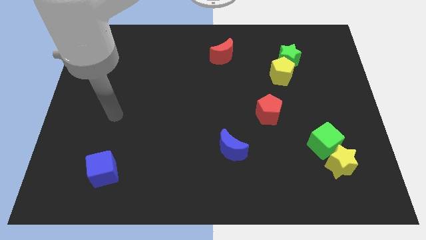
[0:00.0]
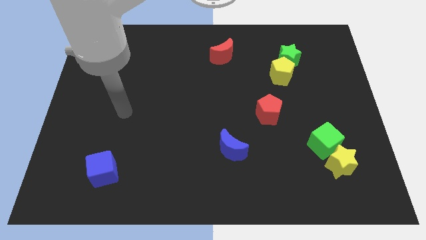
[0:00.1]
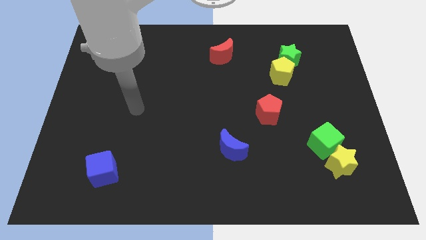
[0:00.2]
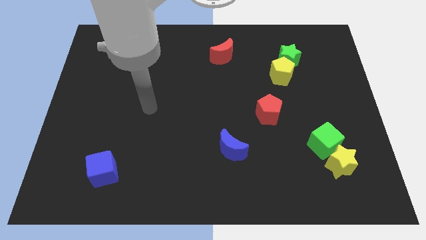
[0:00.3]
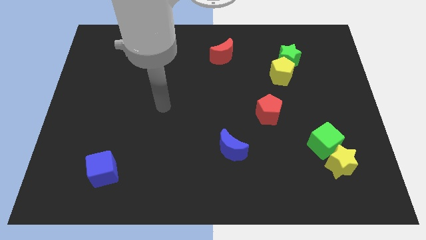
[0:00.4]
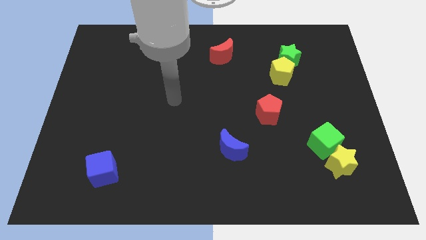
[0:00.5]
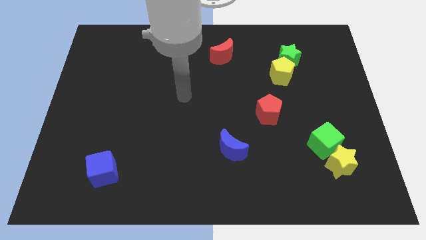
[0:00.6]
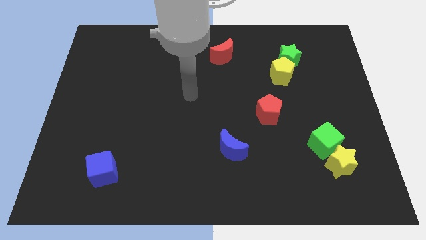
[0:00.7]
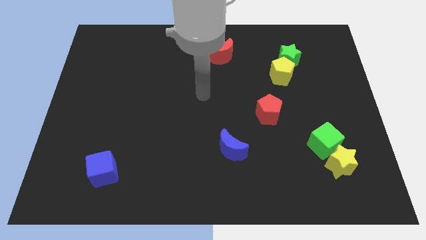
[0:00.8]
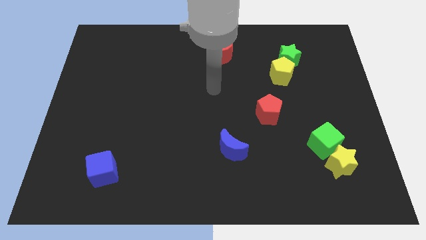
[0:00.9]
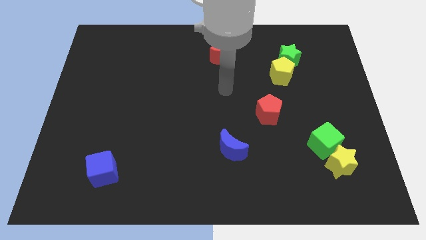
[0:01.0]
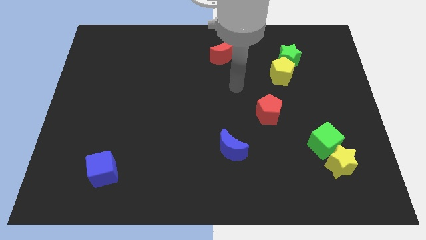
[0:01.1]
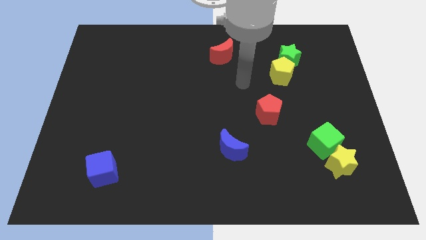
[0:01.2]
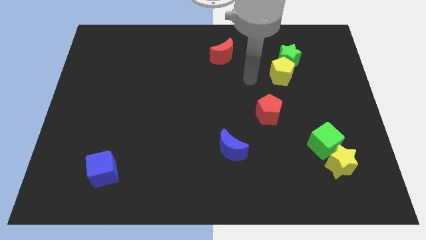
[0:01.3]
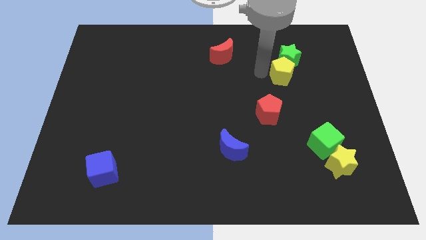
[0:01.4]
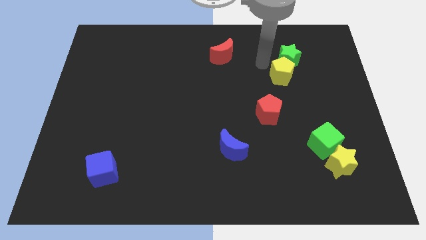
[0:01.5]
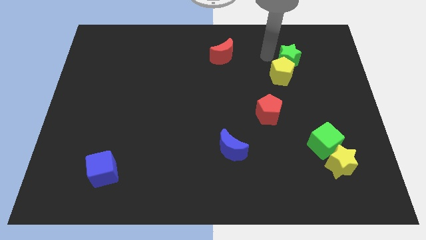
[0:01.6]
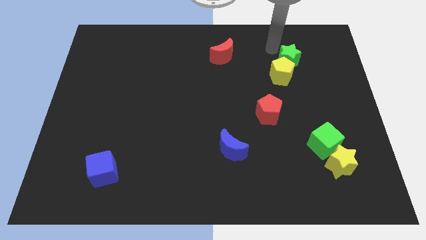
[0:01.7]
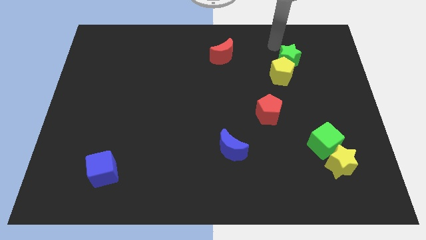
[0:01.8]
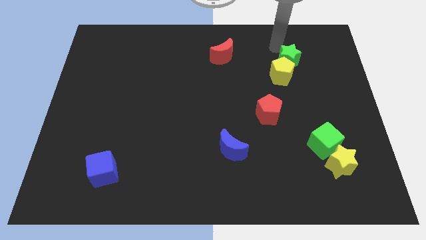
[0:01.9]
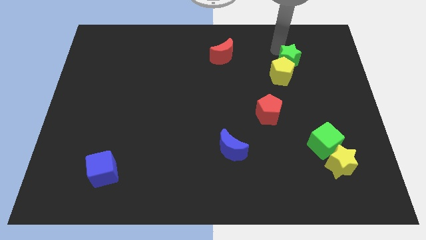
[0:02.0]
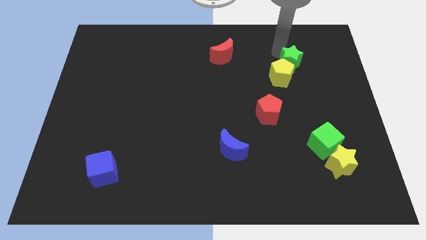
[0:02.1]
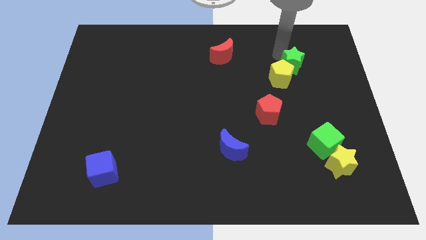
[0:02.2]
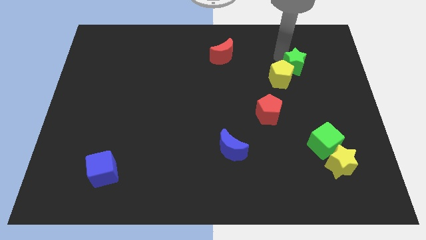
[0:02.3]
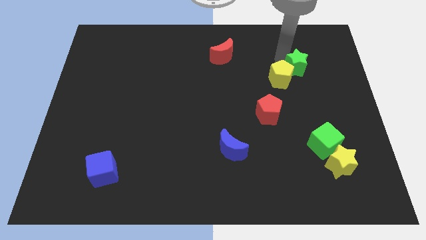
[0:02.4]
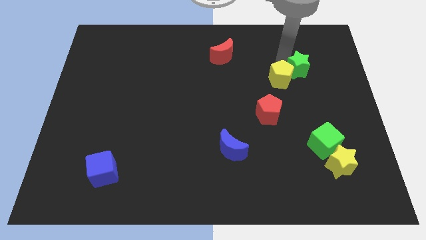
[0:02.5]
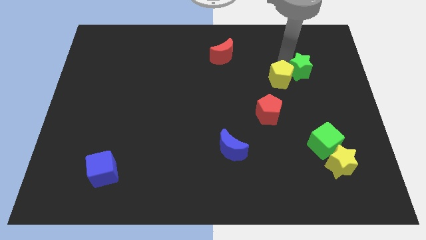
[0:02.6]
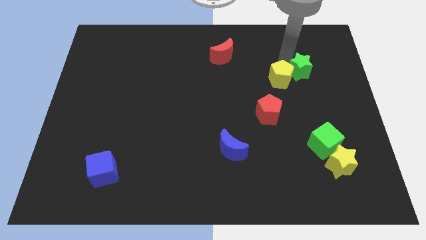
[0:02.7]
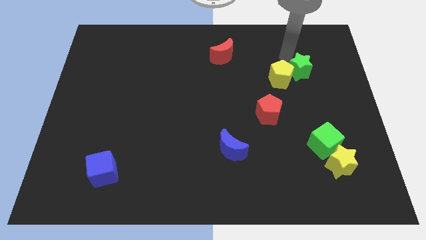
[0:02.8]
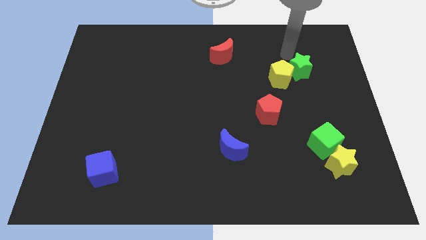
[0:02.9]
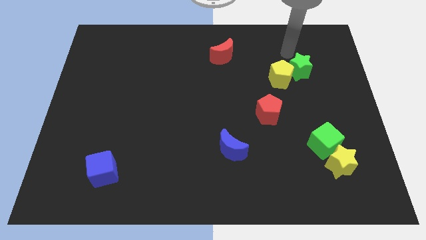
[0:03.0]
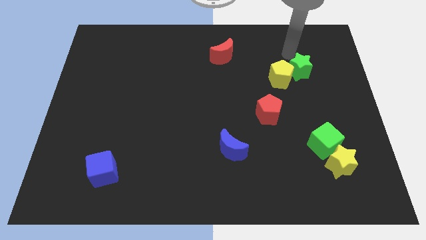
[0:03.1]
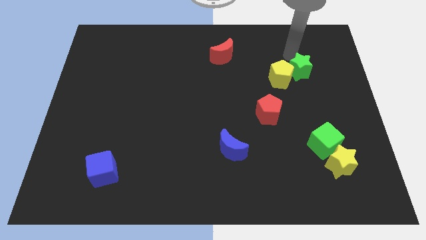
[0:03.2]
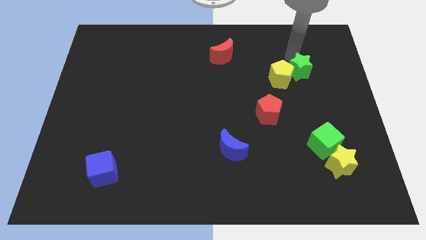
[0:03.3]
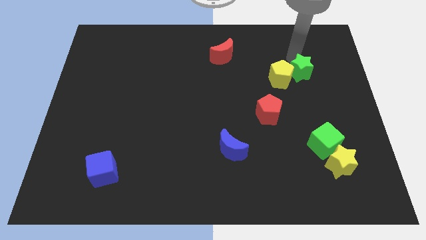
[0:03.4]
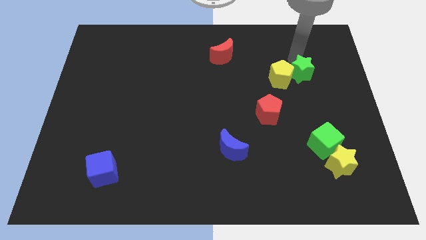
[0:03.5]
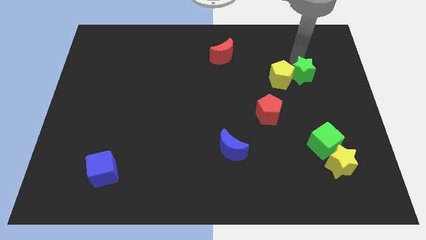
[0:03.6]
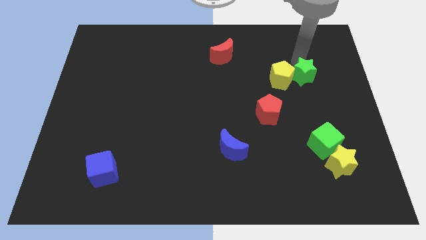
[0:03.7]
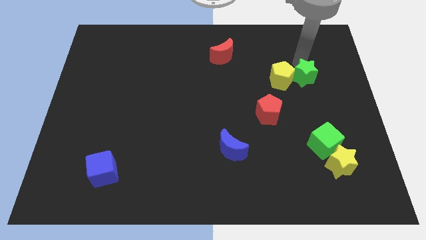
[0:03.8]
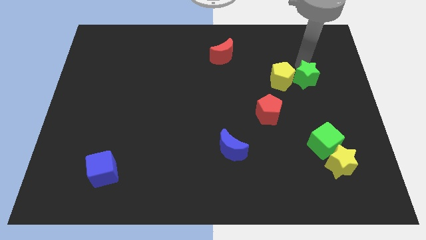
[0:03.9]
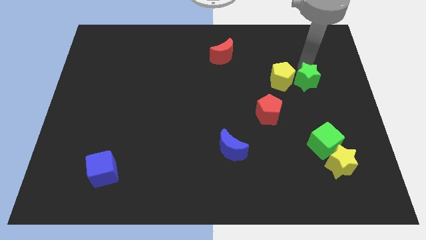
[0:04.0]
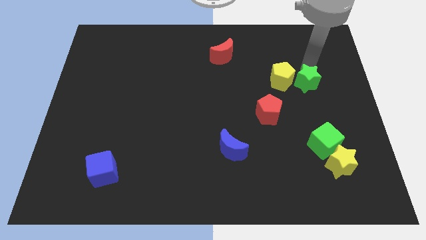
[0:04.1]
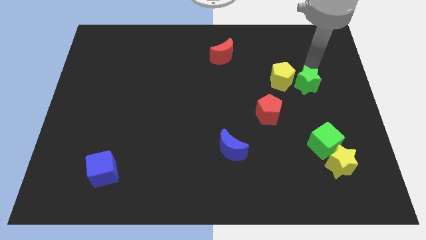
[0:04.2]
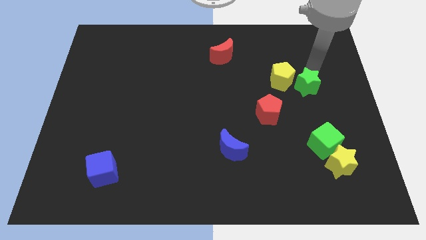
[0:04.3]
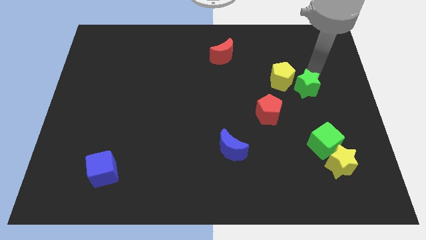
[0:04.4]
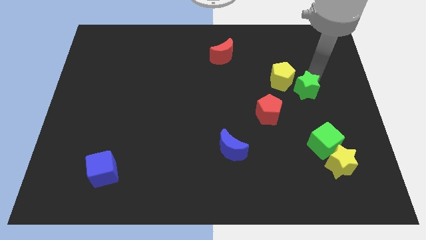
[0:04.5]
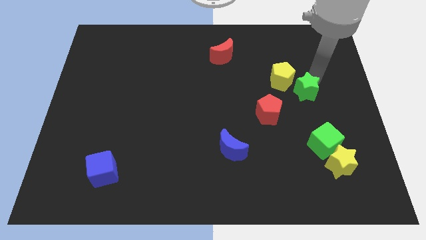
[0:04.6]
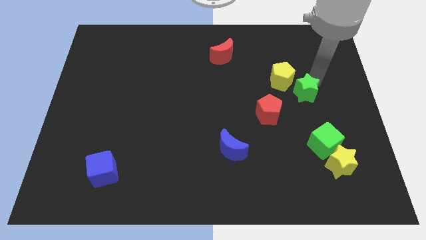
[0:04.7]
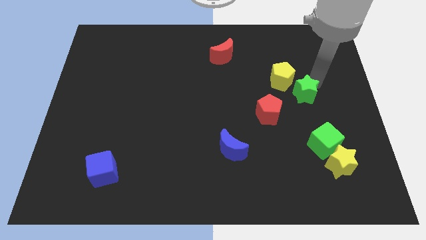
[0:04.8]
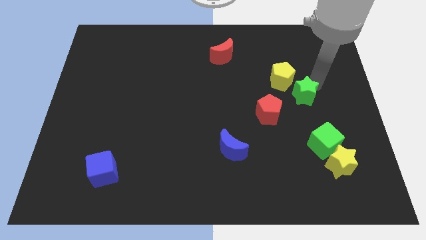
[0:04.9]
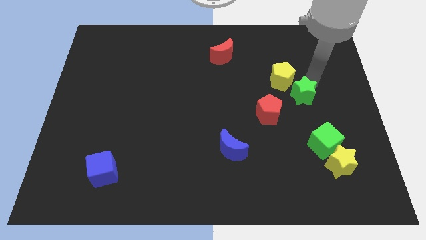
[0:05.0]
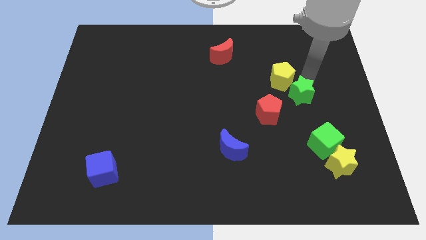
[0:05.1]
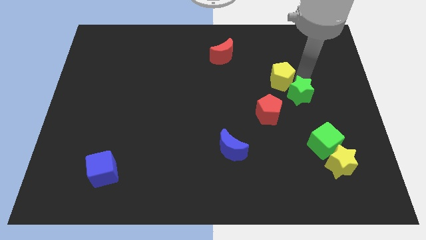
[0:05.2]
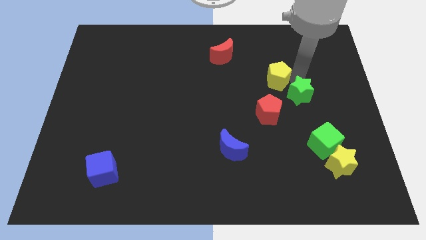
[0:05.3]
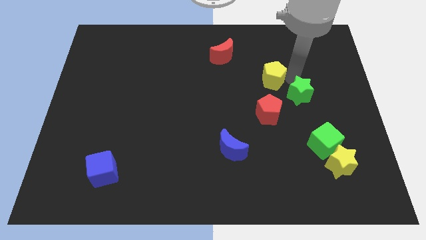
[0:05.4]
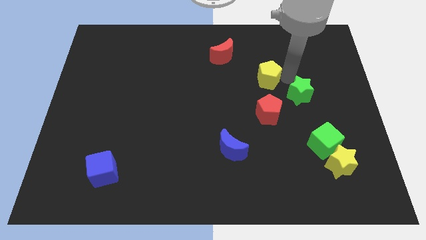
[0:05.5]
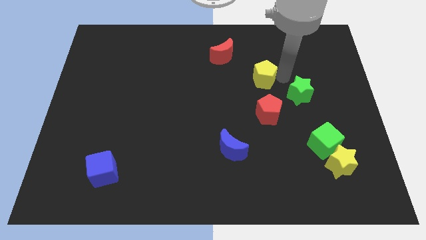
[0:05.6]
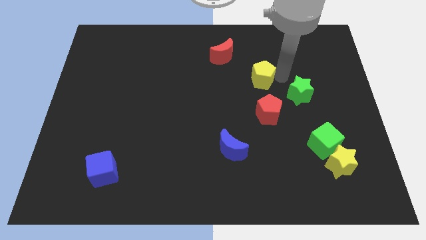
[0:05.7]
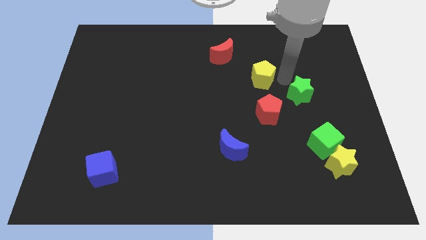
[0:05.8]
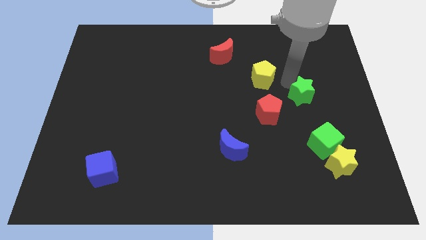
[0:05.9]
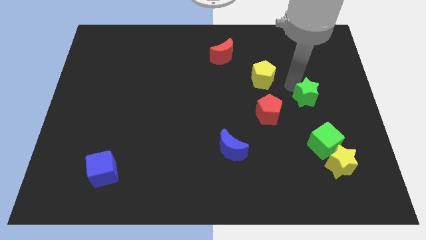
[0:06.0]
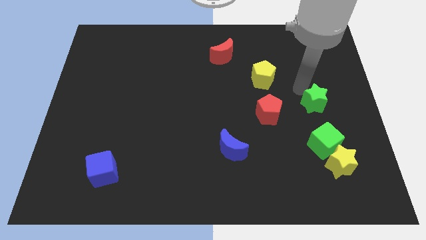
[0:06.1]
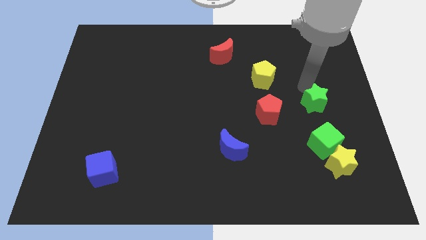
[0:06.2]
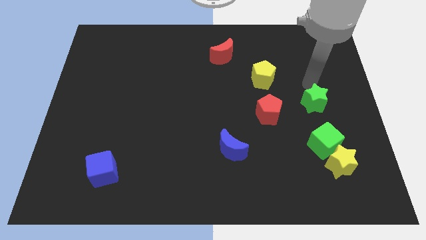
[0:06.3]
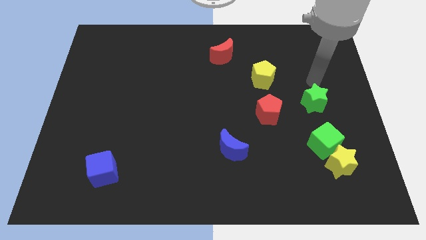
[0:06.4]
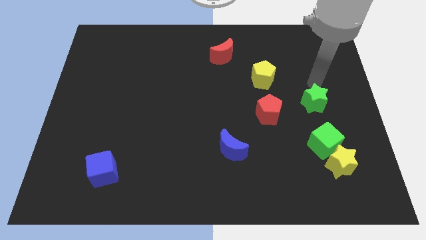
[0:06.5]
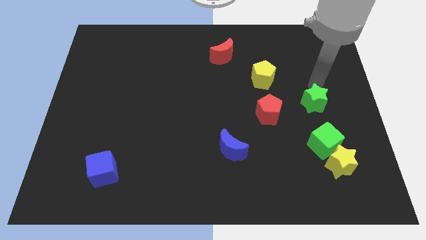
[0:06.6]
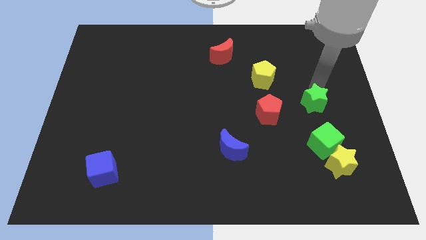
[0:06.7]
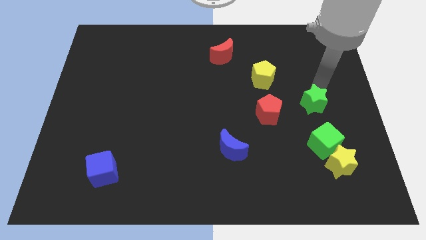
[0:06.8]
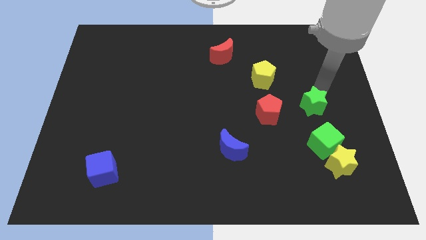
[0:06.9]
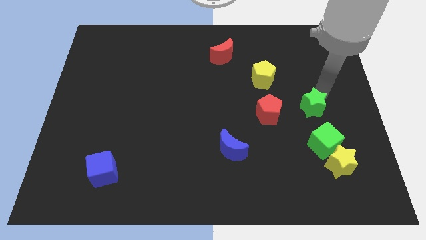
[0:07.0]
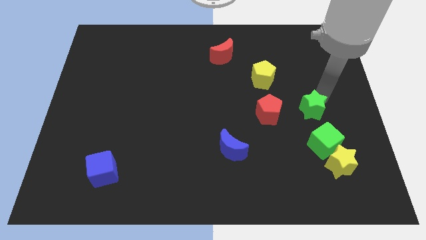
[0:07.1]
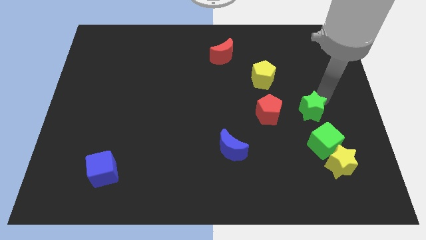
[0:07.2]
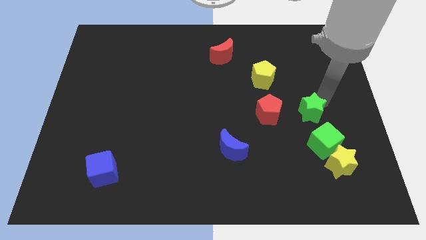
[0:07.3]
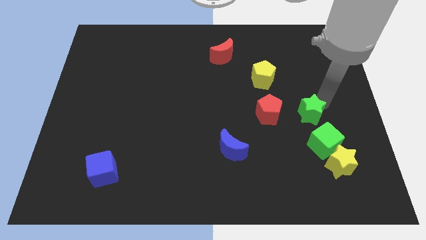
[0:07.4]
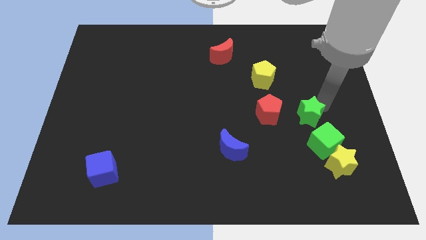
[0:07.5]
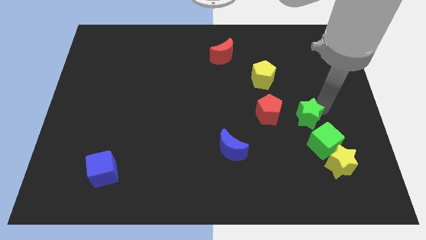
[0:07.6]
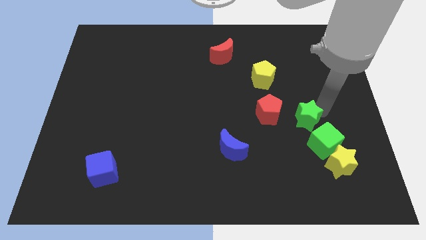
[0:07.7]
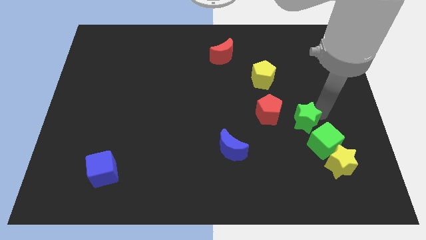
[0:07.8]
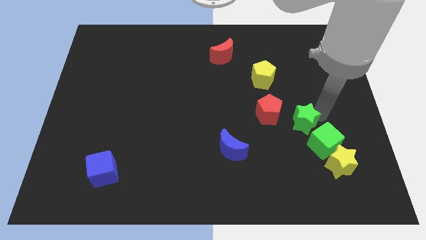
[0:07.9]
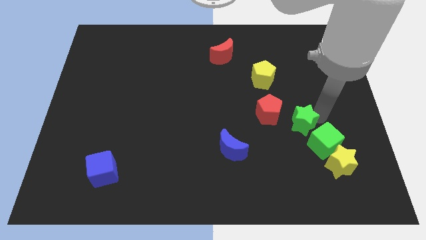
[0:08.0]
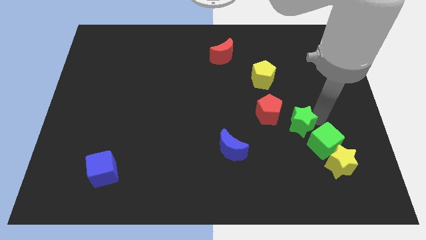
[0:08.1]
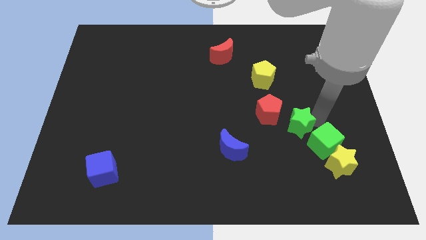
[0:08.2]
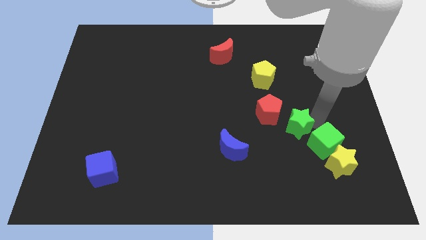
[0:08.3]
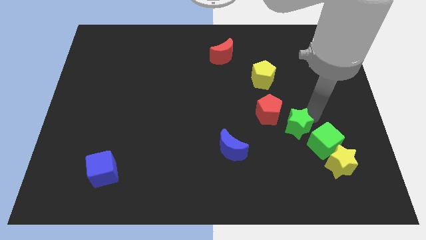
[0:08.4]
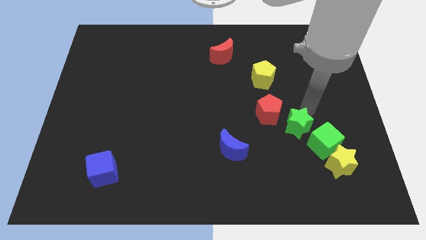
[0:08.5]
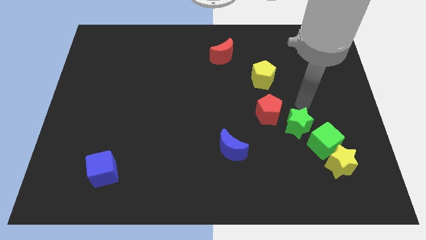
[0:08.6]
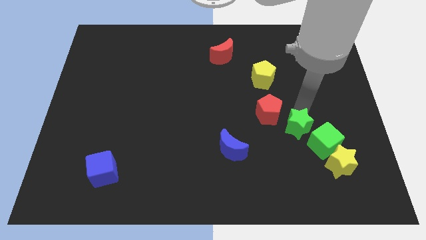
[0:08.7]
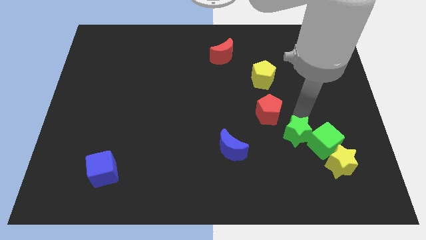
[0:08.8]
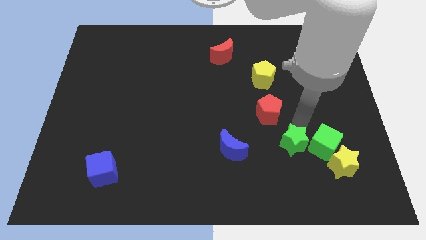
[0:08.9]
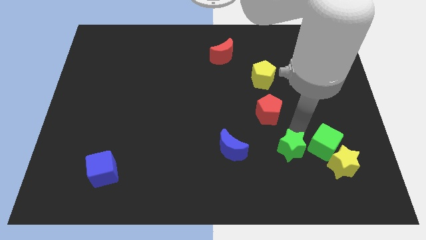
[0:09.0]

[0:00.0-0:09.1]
push the green star just left of the yellow star
